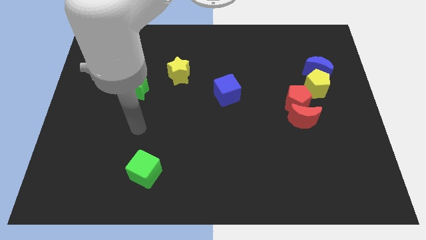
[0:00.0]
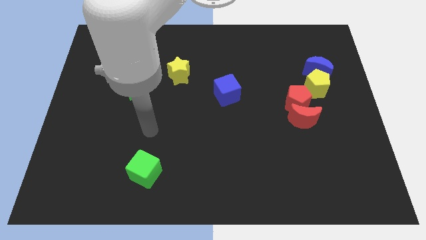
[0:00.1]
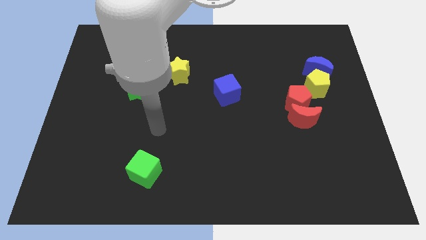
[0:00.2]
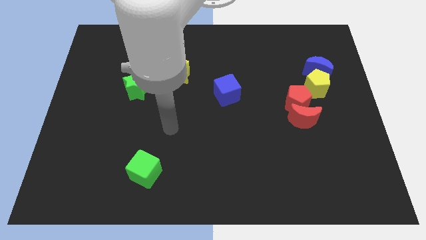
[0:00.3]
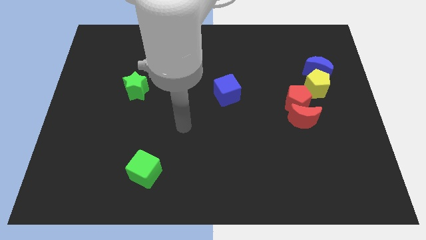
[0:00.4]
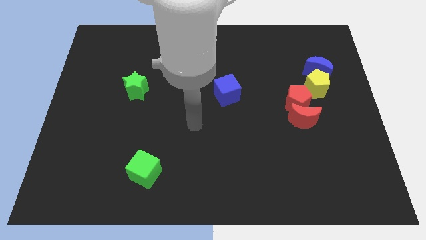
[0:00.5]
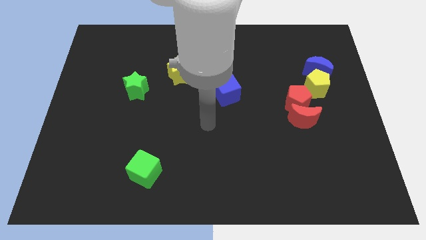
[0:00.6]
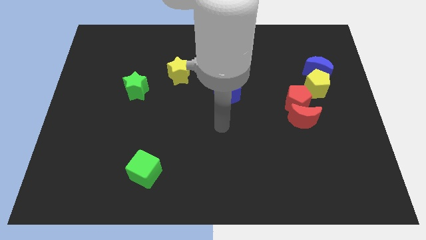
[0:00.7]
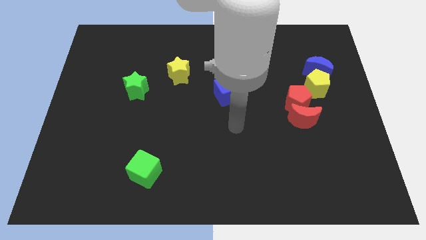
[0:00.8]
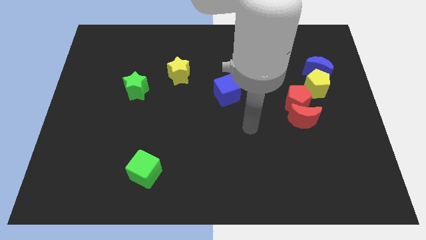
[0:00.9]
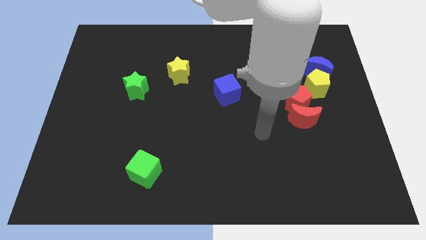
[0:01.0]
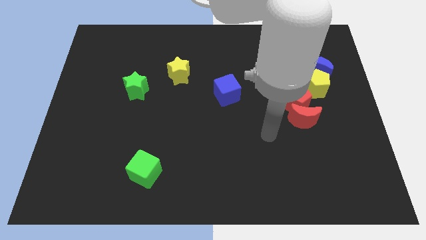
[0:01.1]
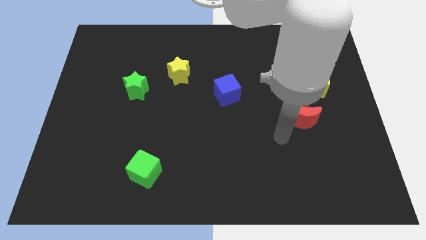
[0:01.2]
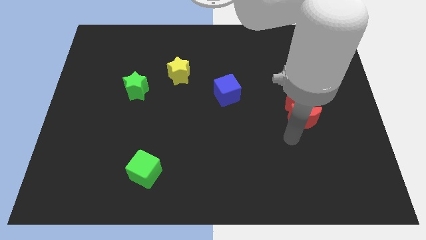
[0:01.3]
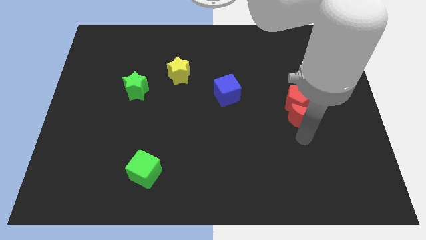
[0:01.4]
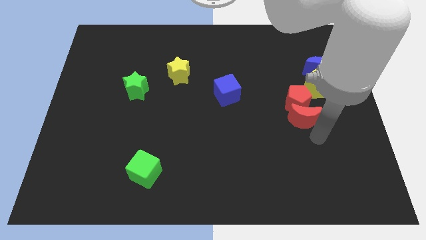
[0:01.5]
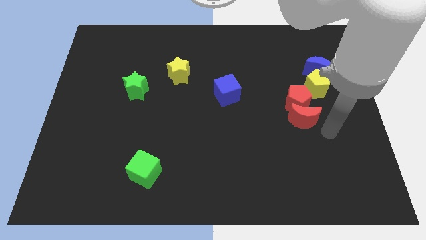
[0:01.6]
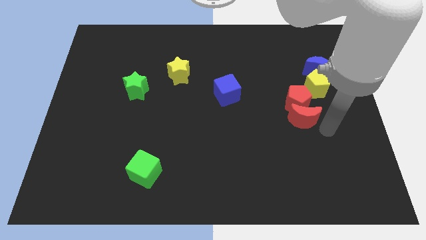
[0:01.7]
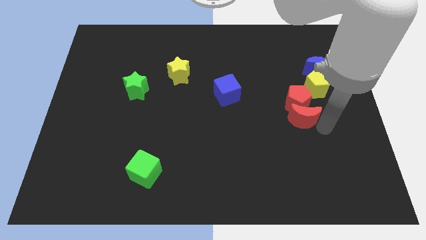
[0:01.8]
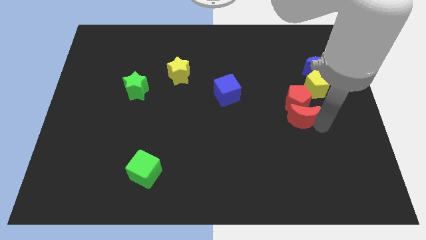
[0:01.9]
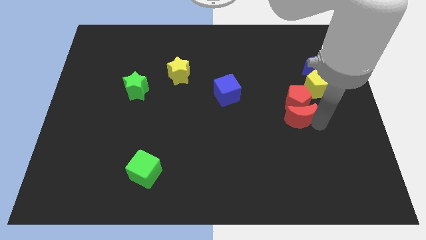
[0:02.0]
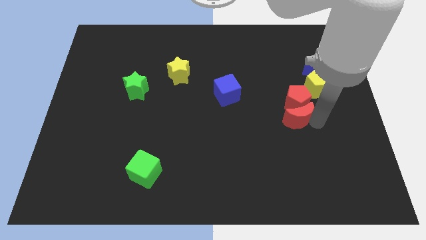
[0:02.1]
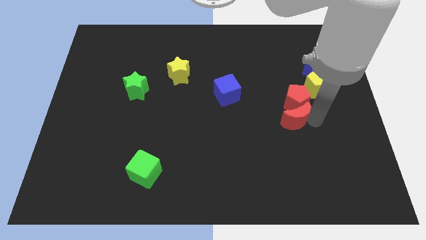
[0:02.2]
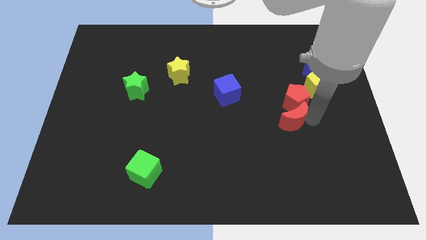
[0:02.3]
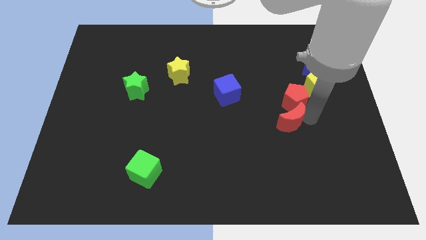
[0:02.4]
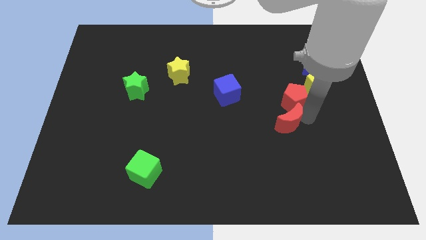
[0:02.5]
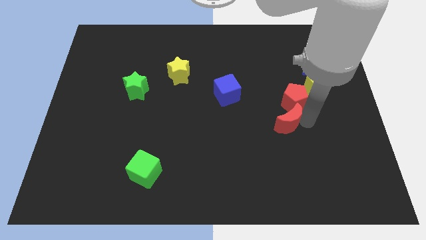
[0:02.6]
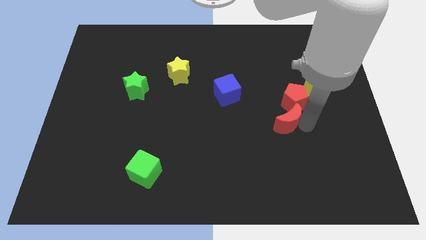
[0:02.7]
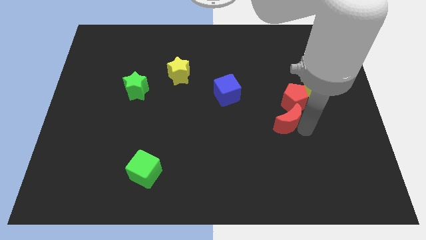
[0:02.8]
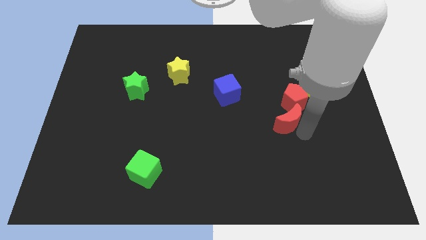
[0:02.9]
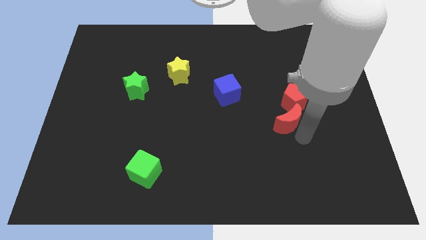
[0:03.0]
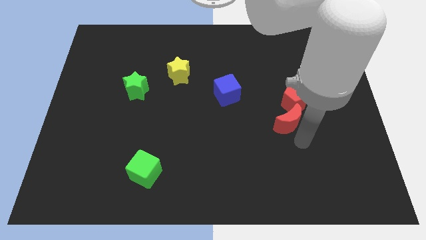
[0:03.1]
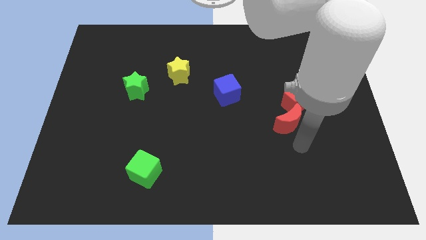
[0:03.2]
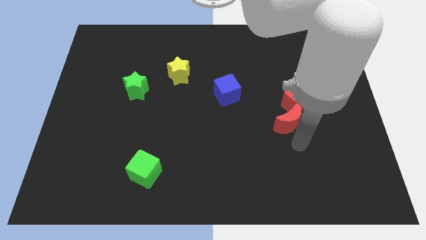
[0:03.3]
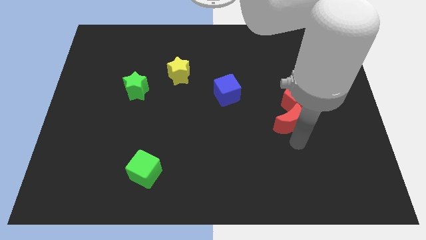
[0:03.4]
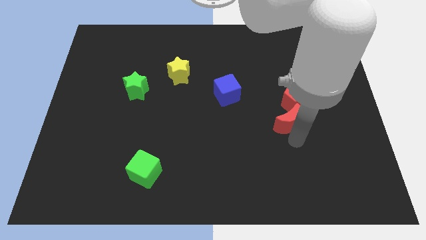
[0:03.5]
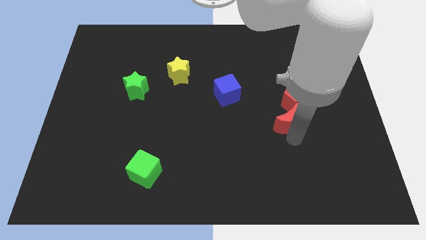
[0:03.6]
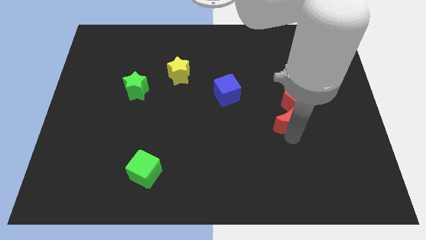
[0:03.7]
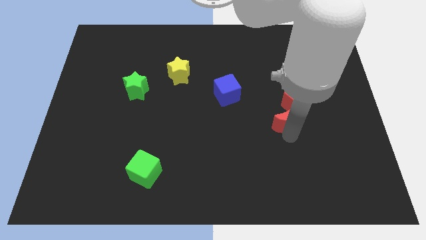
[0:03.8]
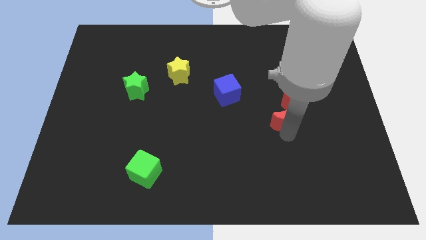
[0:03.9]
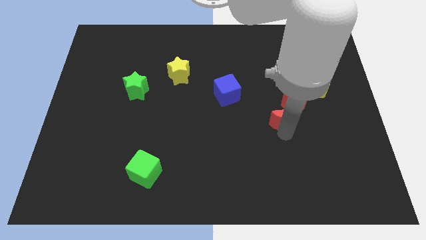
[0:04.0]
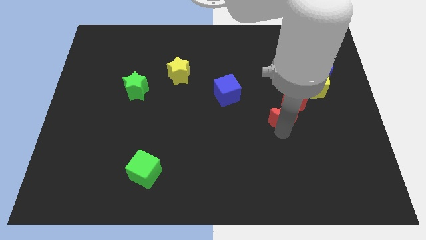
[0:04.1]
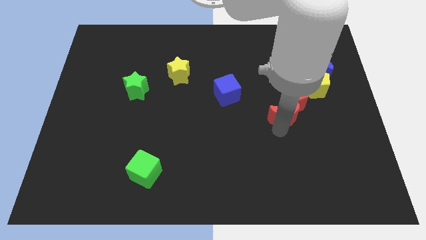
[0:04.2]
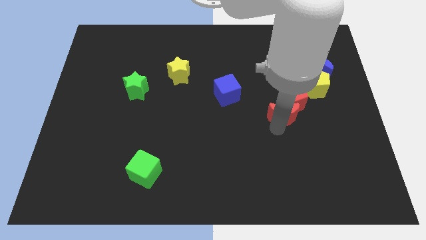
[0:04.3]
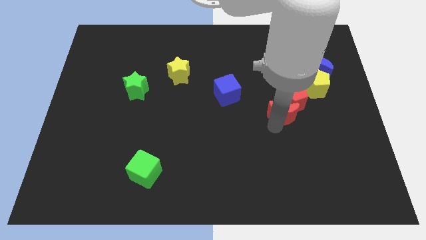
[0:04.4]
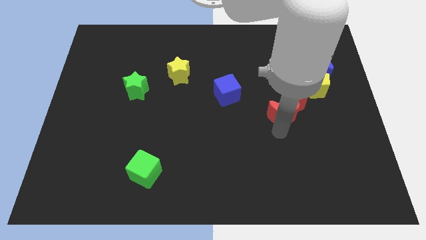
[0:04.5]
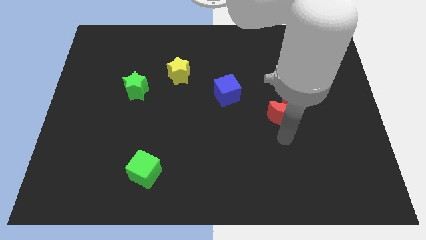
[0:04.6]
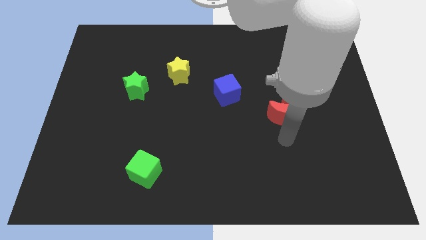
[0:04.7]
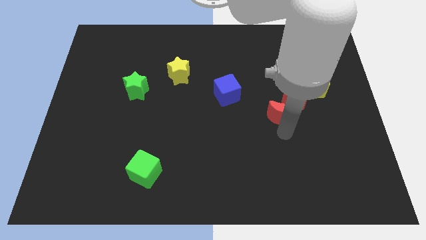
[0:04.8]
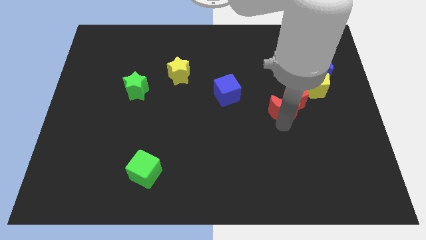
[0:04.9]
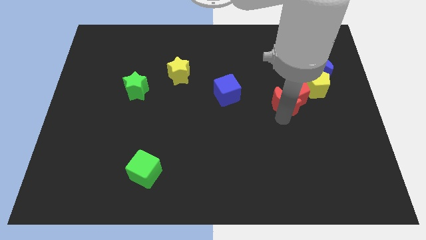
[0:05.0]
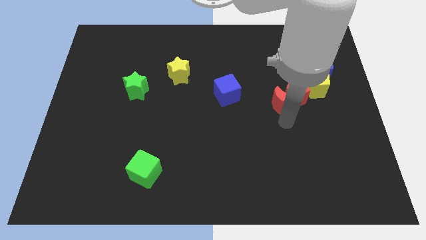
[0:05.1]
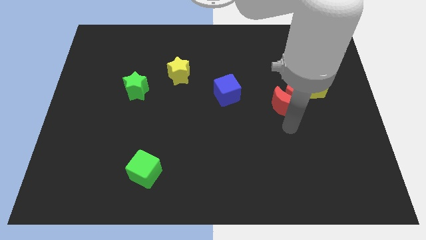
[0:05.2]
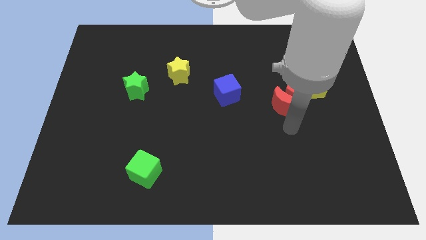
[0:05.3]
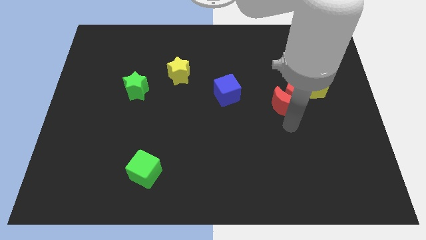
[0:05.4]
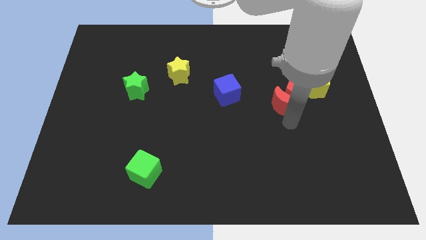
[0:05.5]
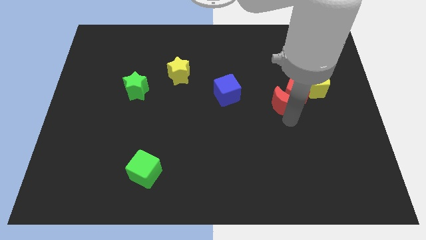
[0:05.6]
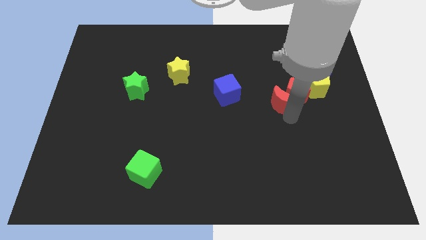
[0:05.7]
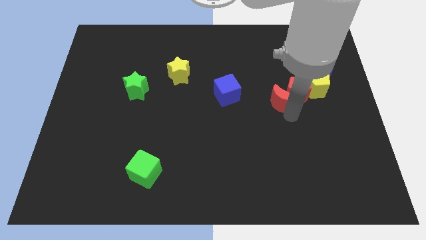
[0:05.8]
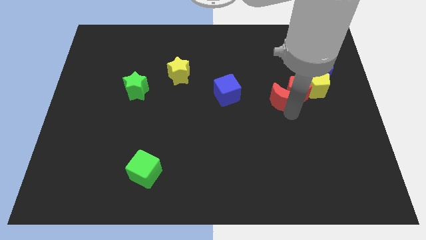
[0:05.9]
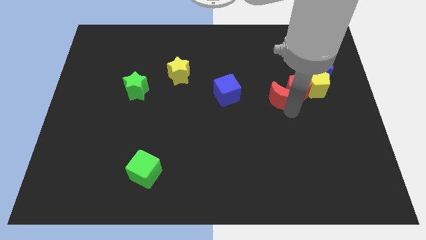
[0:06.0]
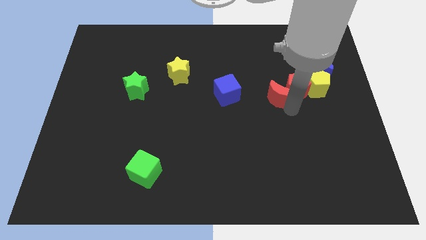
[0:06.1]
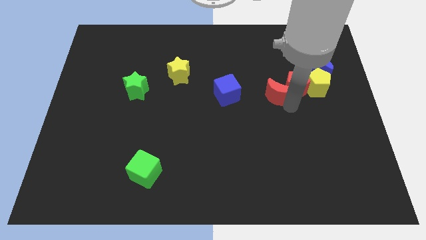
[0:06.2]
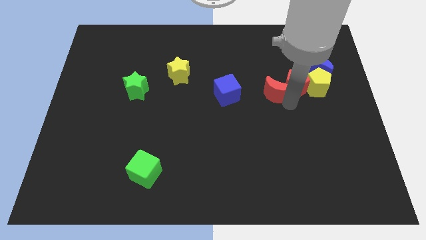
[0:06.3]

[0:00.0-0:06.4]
slide the red moon somewhat up

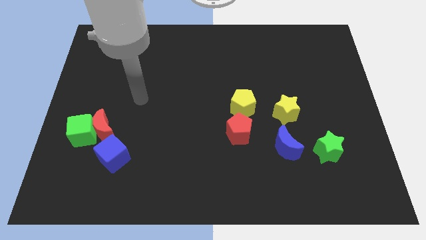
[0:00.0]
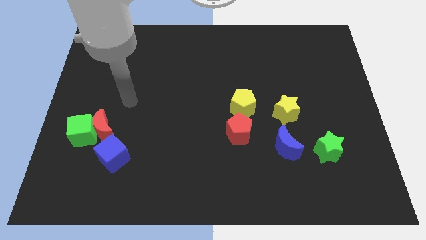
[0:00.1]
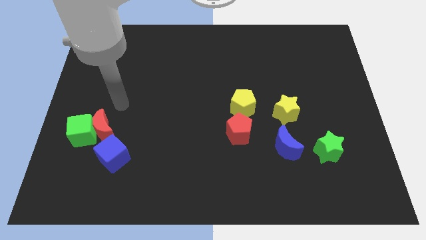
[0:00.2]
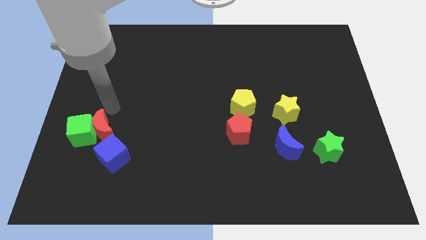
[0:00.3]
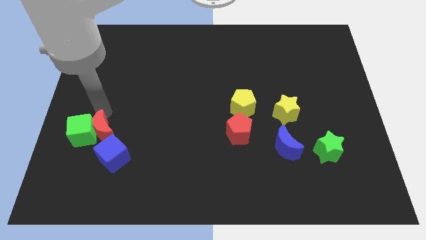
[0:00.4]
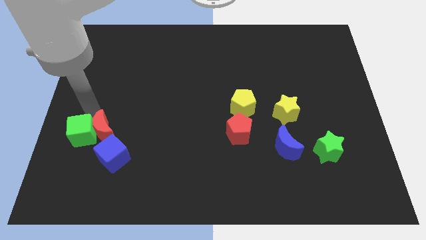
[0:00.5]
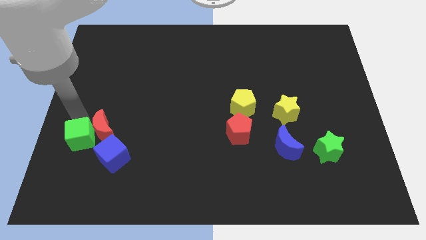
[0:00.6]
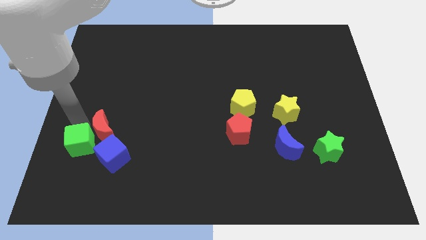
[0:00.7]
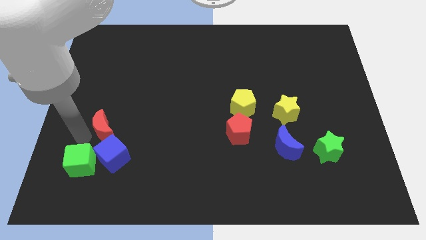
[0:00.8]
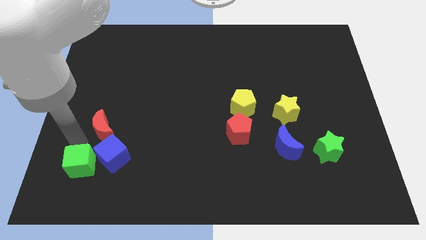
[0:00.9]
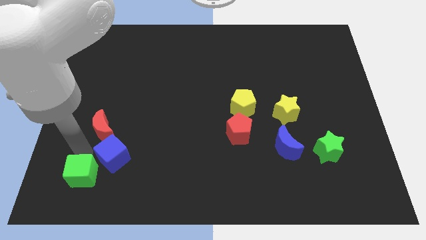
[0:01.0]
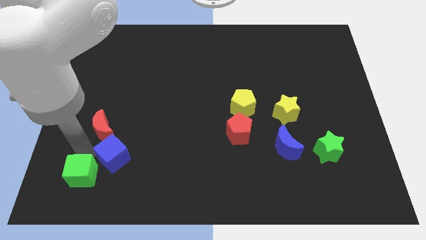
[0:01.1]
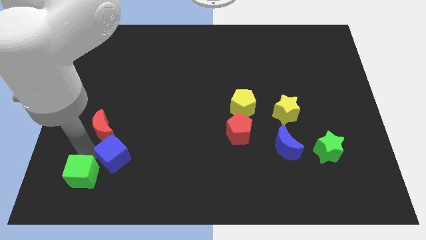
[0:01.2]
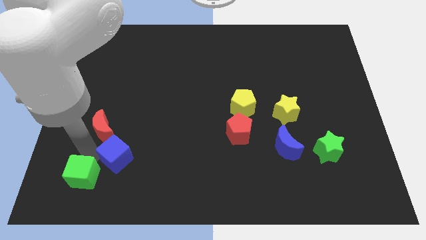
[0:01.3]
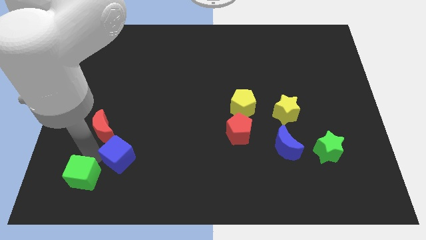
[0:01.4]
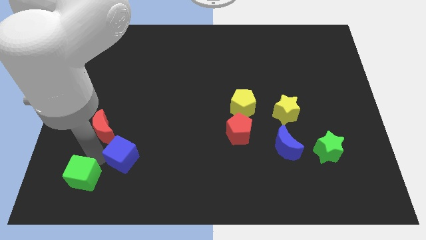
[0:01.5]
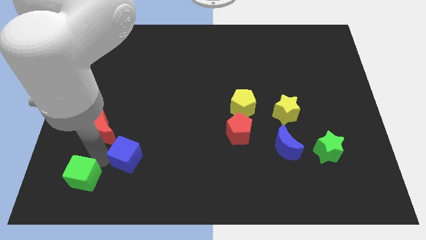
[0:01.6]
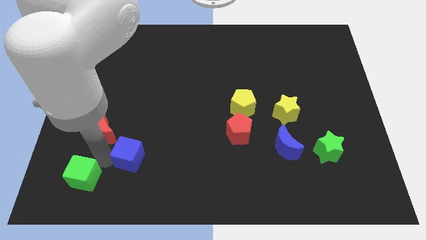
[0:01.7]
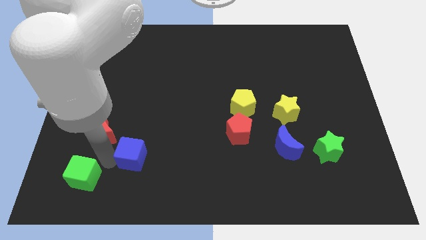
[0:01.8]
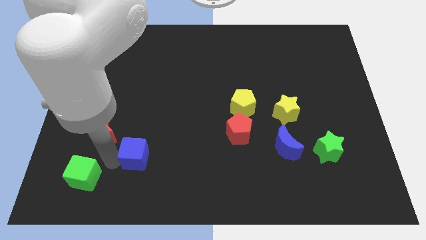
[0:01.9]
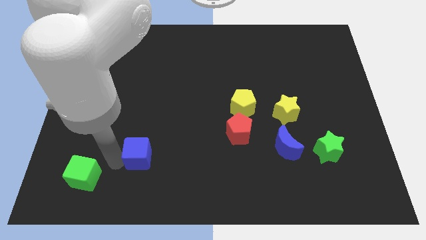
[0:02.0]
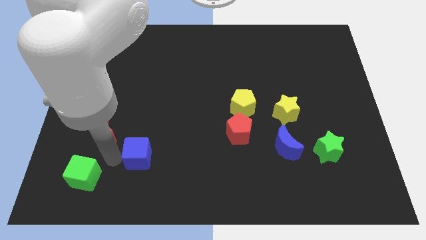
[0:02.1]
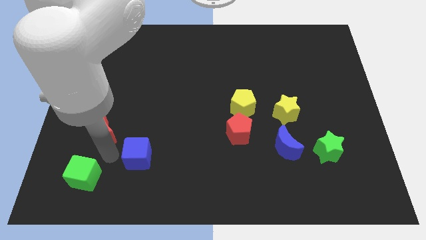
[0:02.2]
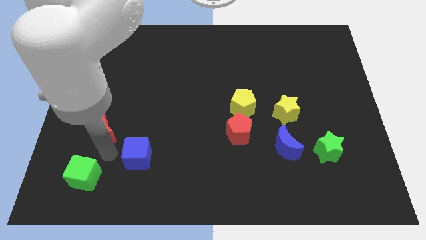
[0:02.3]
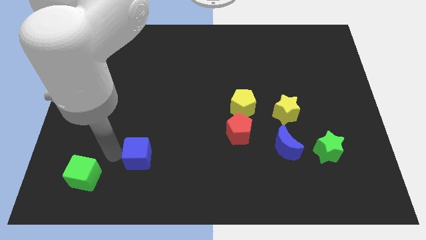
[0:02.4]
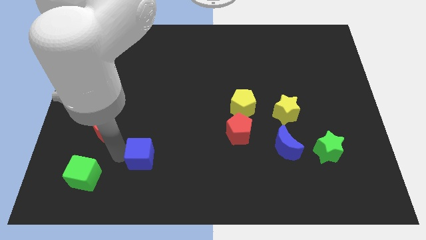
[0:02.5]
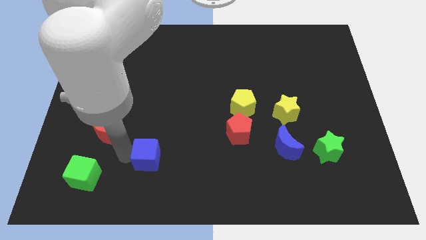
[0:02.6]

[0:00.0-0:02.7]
slide the blue cube slightly to the right
